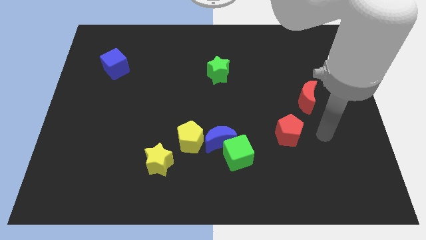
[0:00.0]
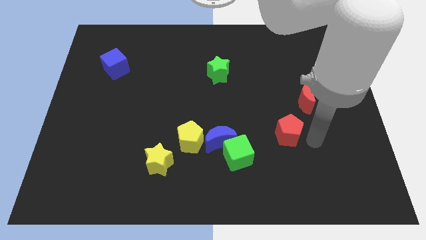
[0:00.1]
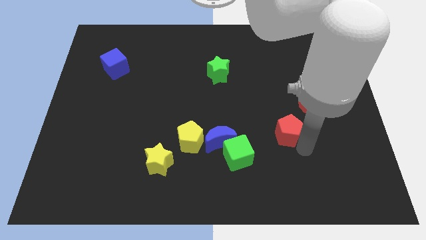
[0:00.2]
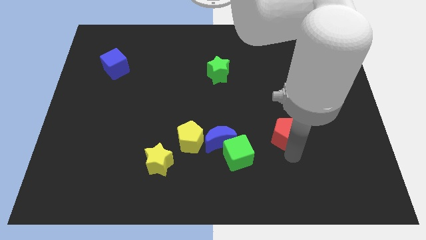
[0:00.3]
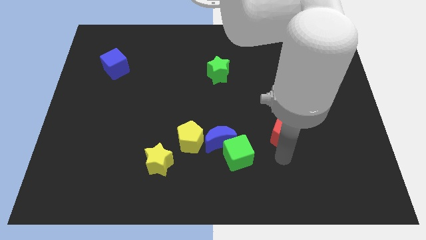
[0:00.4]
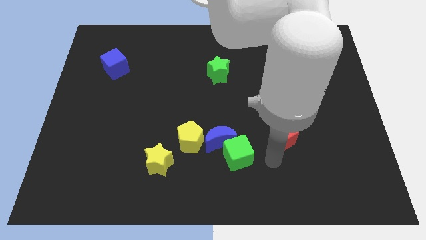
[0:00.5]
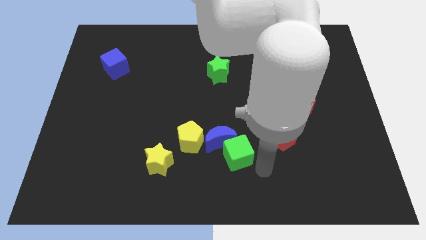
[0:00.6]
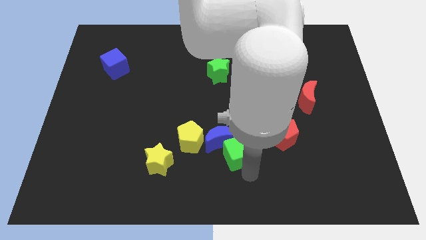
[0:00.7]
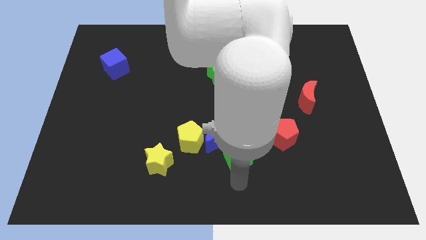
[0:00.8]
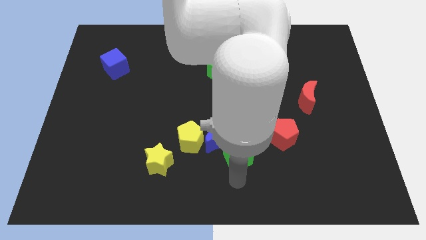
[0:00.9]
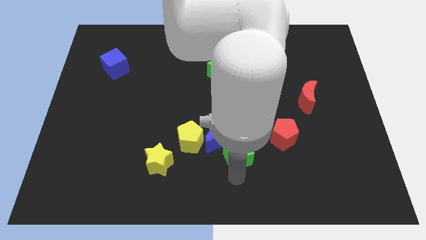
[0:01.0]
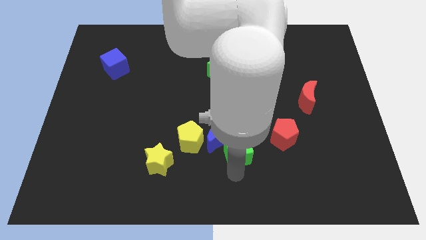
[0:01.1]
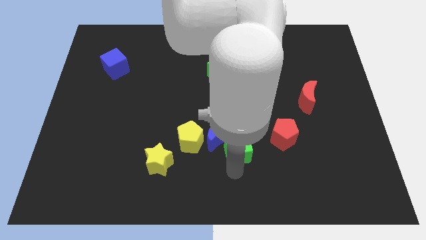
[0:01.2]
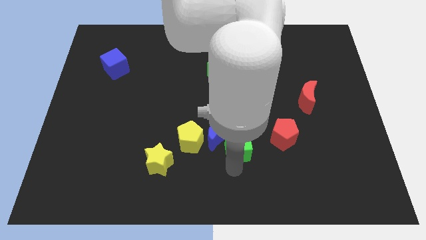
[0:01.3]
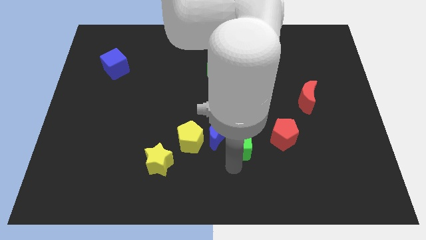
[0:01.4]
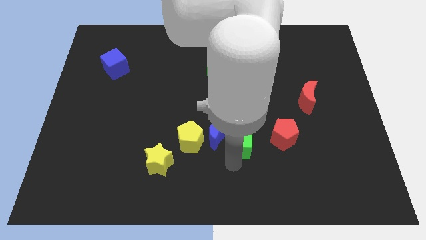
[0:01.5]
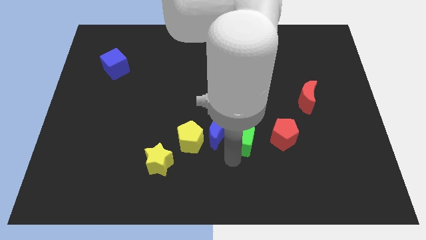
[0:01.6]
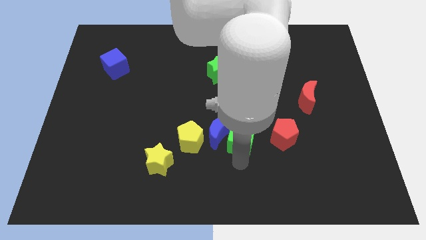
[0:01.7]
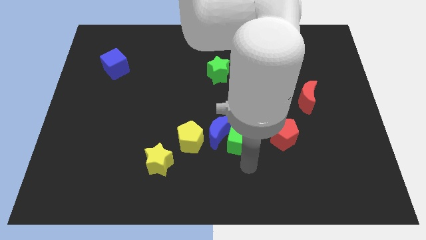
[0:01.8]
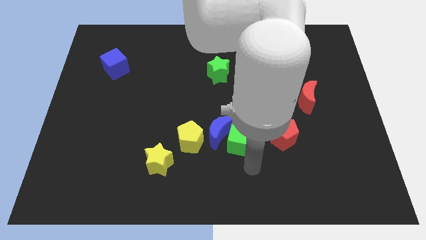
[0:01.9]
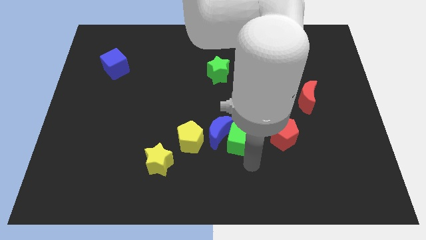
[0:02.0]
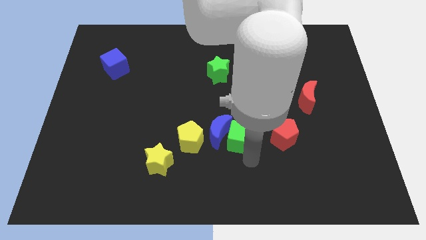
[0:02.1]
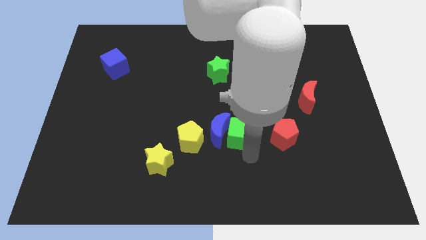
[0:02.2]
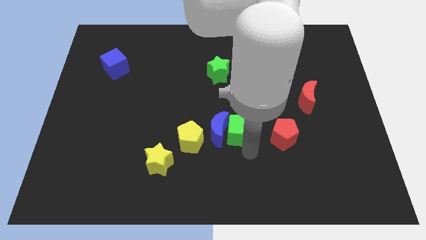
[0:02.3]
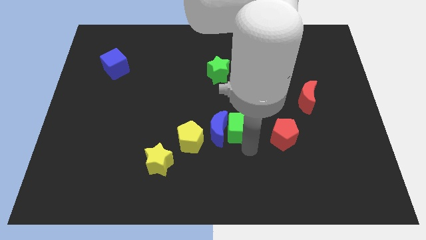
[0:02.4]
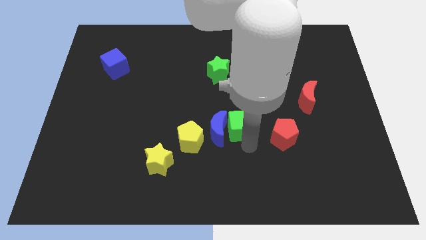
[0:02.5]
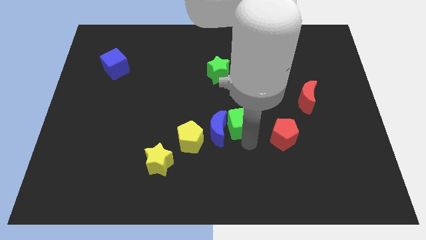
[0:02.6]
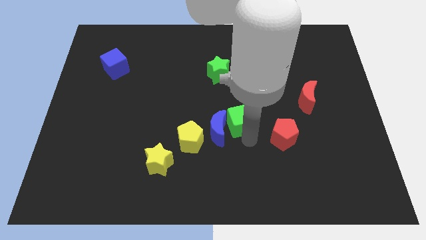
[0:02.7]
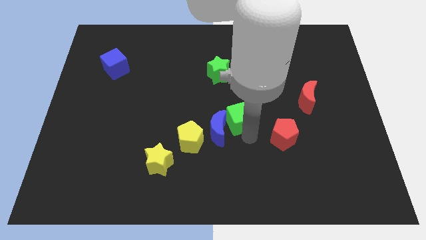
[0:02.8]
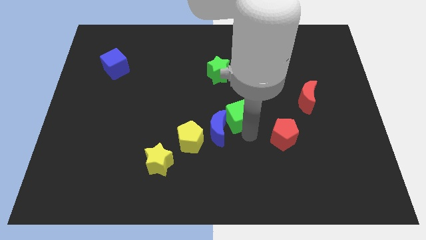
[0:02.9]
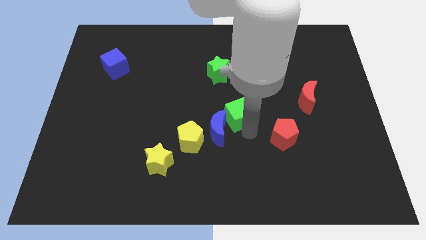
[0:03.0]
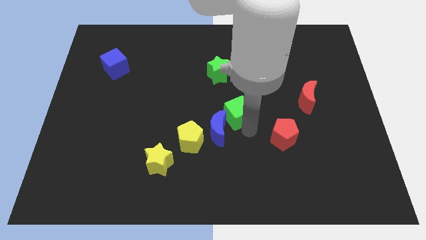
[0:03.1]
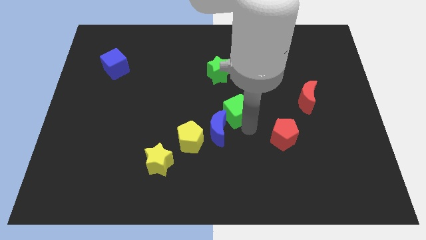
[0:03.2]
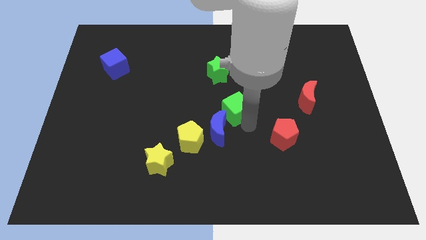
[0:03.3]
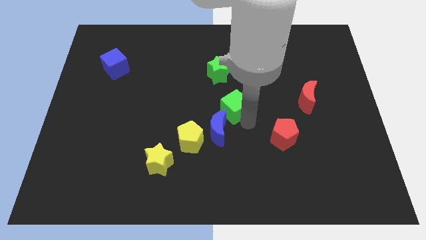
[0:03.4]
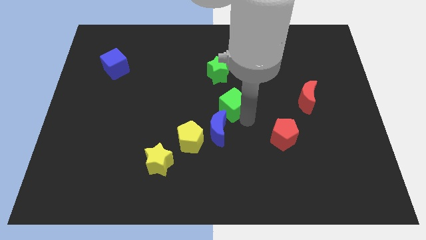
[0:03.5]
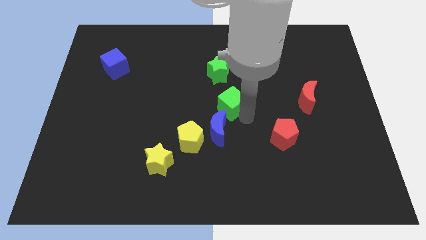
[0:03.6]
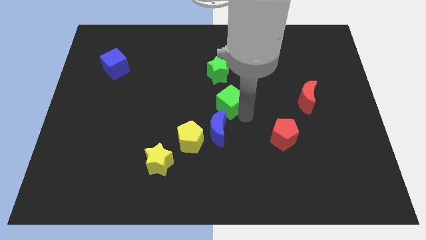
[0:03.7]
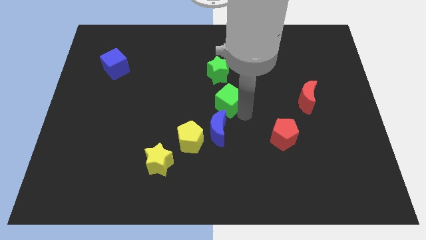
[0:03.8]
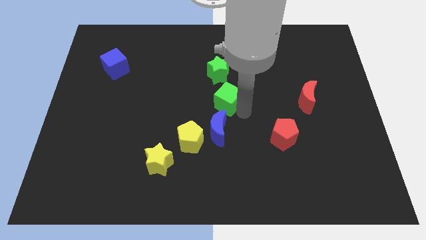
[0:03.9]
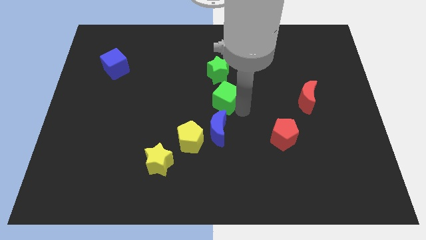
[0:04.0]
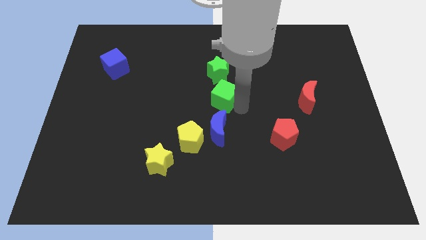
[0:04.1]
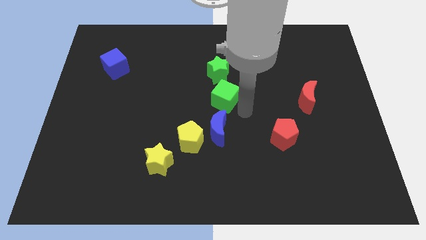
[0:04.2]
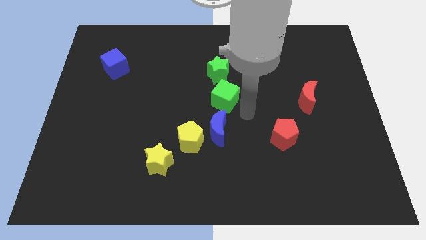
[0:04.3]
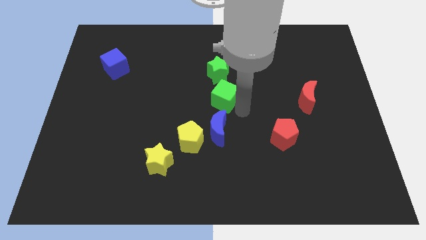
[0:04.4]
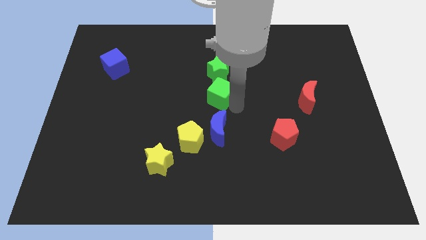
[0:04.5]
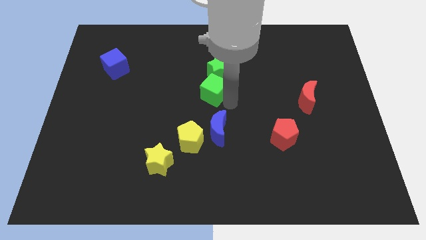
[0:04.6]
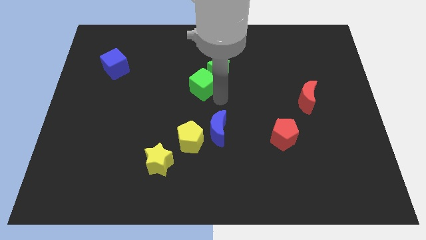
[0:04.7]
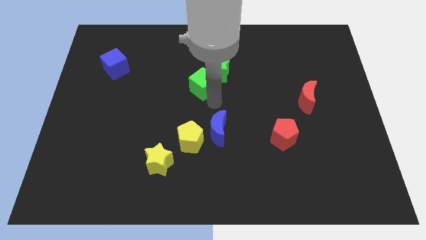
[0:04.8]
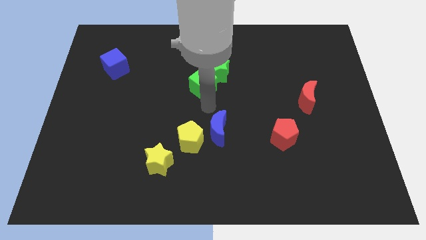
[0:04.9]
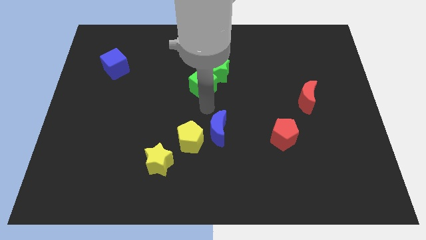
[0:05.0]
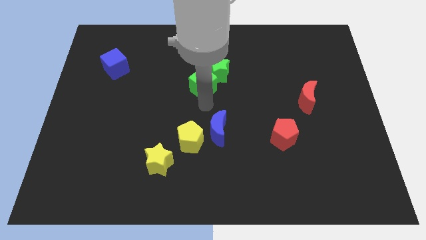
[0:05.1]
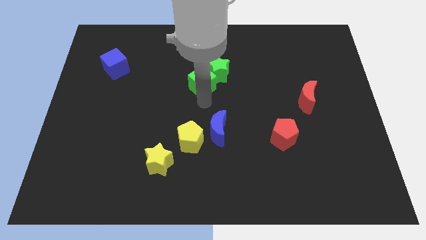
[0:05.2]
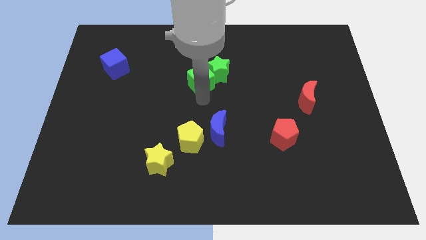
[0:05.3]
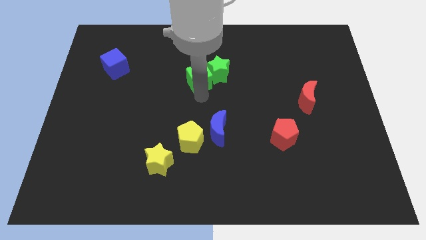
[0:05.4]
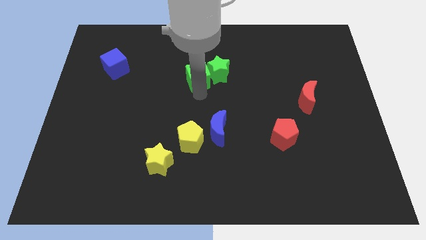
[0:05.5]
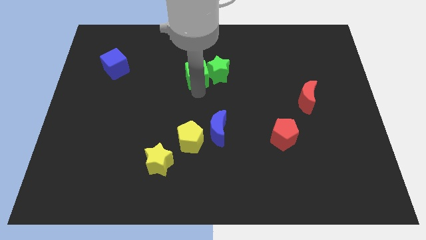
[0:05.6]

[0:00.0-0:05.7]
slide the green cube diagonally up and to the left of the green star

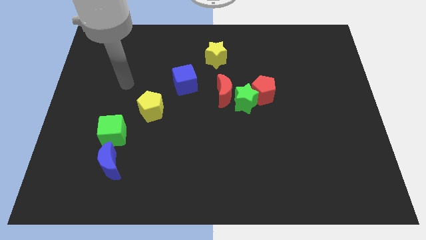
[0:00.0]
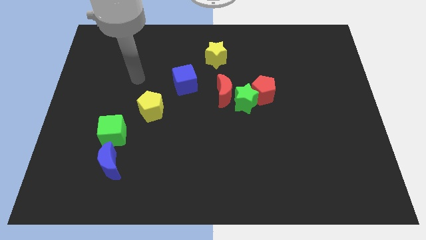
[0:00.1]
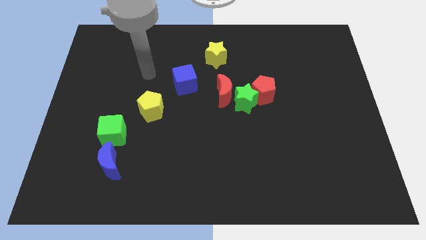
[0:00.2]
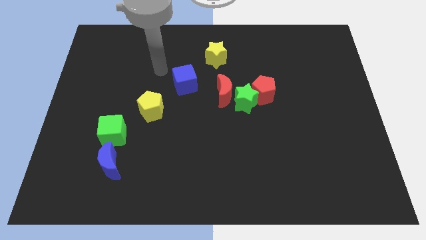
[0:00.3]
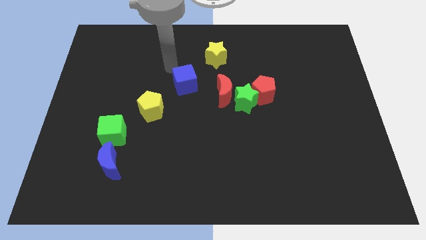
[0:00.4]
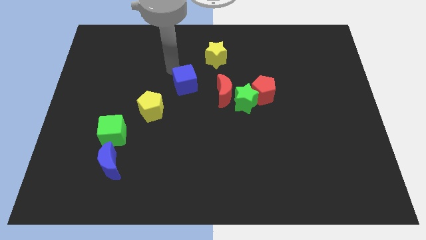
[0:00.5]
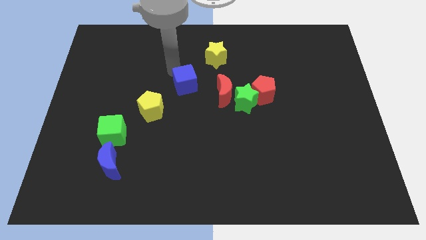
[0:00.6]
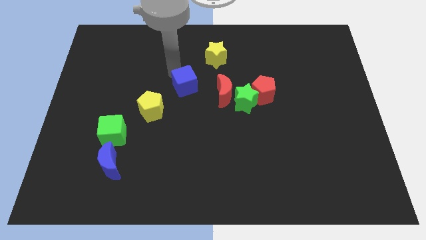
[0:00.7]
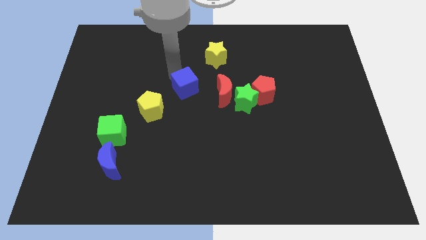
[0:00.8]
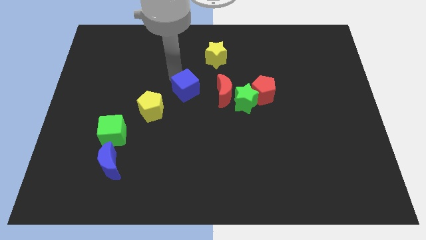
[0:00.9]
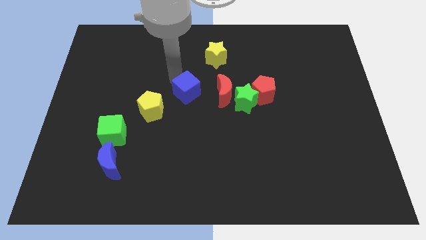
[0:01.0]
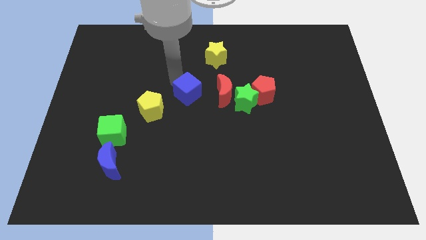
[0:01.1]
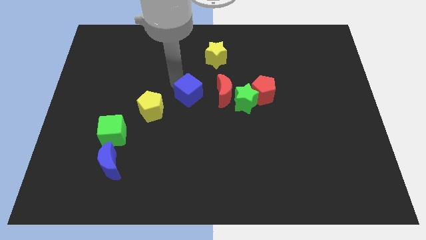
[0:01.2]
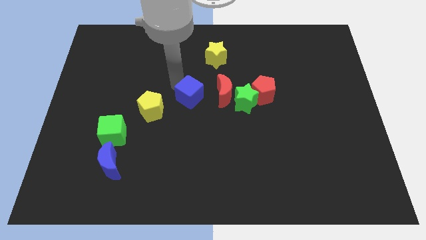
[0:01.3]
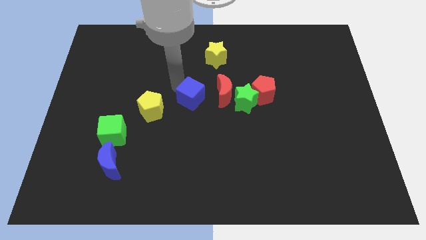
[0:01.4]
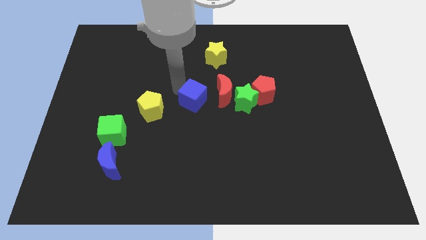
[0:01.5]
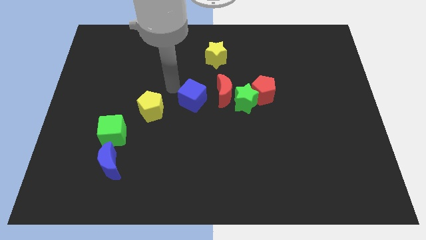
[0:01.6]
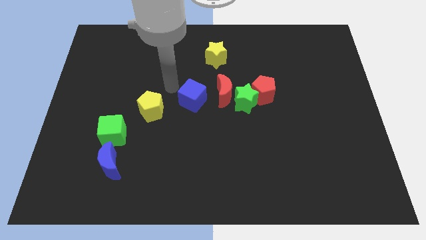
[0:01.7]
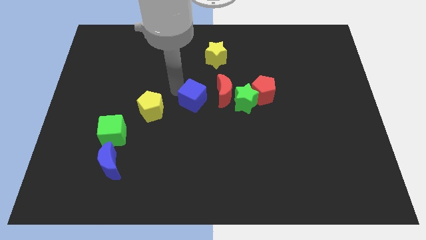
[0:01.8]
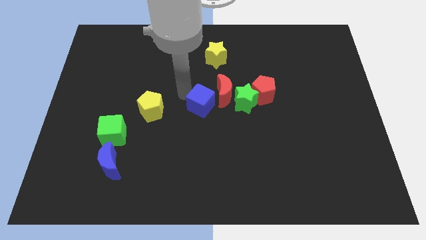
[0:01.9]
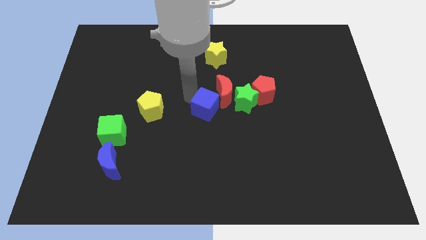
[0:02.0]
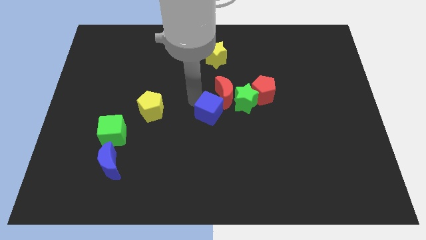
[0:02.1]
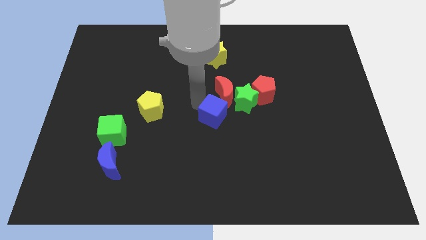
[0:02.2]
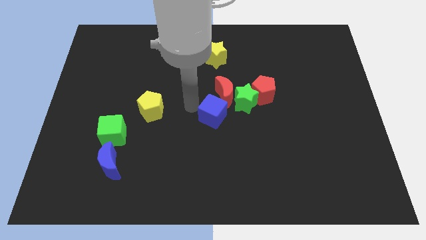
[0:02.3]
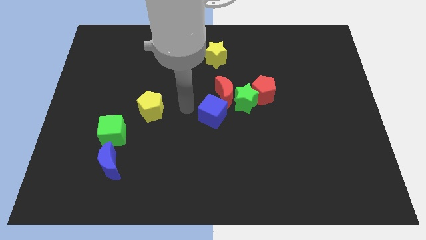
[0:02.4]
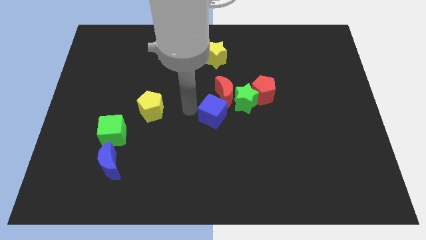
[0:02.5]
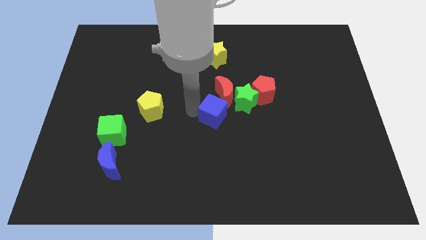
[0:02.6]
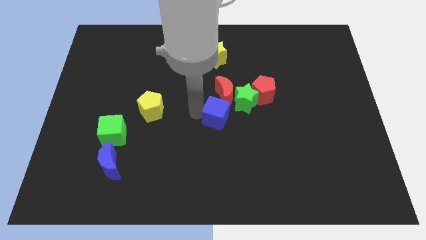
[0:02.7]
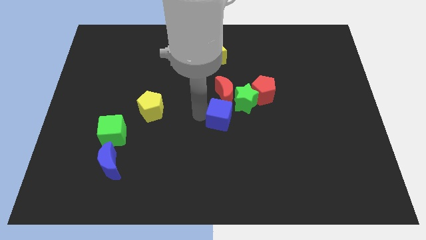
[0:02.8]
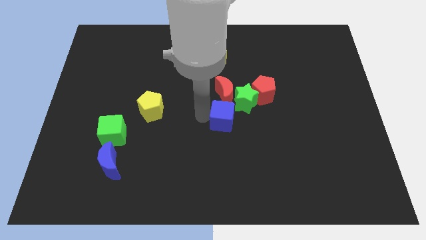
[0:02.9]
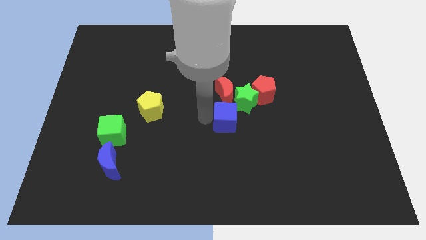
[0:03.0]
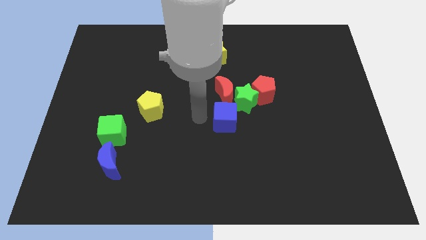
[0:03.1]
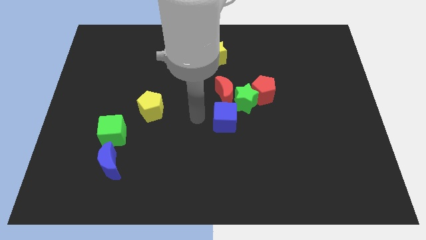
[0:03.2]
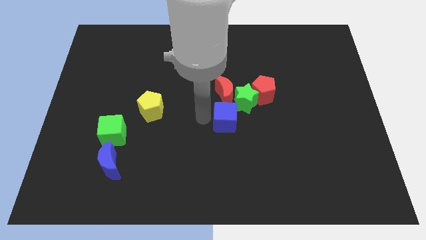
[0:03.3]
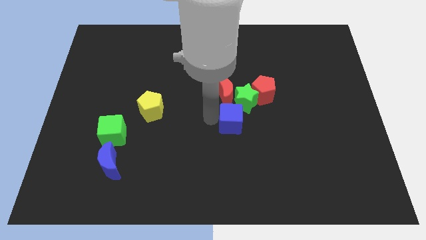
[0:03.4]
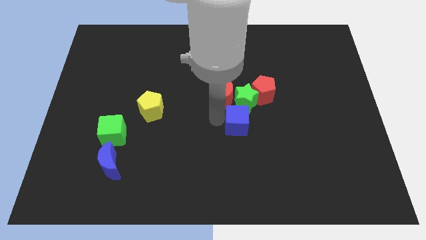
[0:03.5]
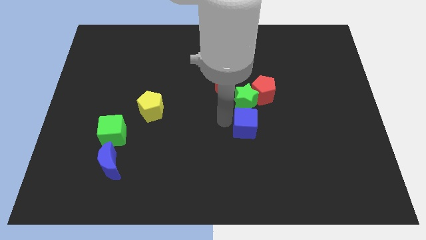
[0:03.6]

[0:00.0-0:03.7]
put the blue cube below the red pentagon
